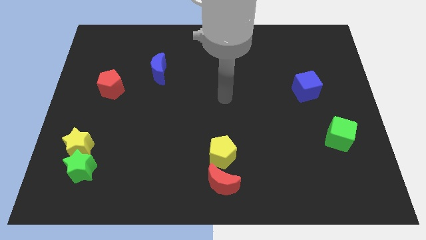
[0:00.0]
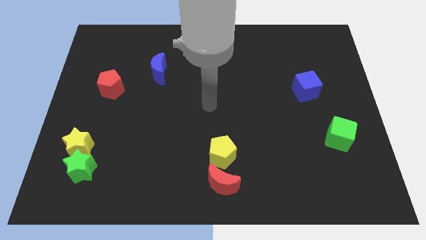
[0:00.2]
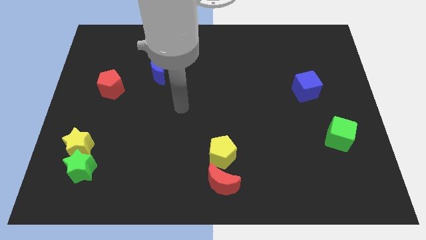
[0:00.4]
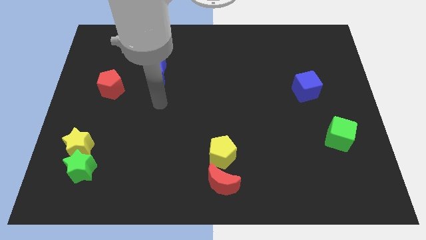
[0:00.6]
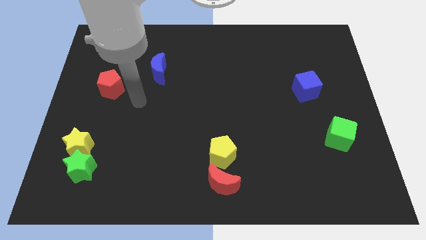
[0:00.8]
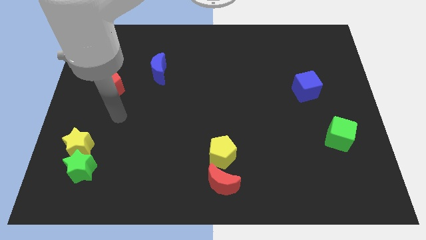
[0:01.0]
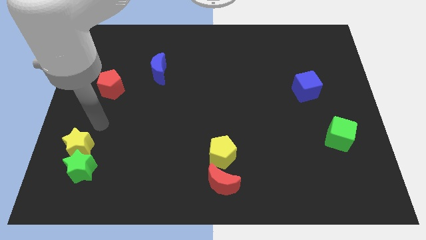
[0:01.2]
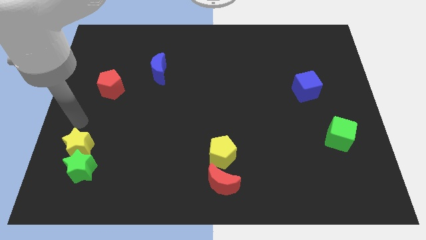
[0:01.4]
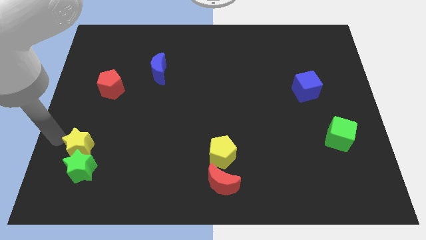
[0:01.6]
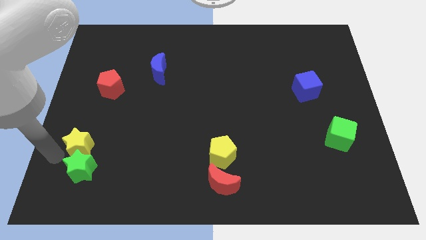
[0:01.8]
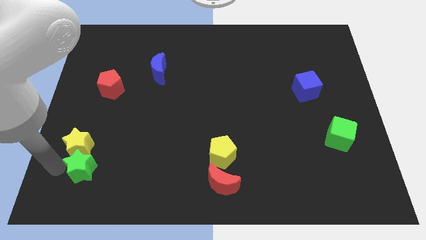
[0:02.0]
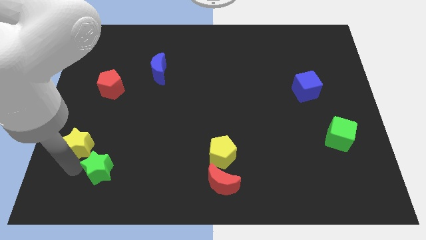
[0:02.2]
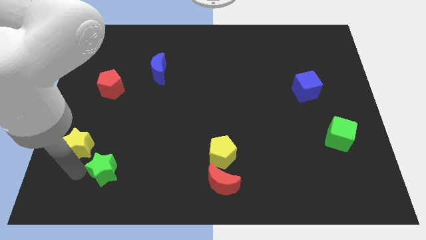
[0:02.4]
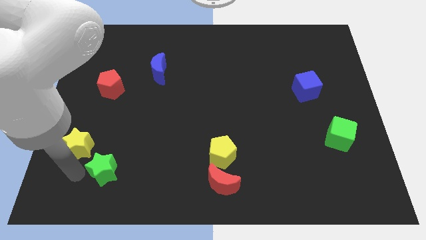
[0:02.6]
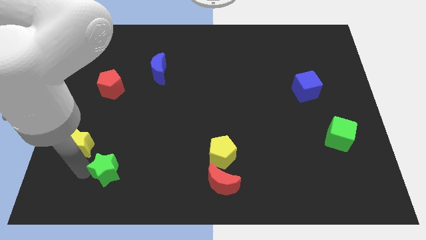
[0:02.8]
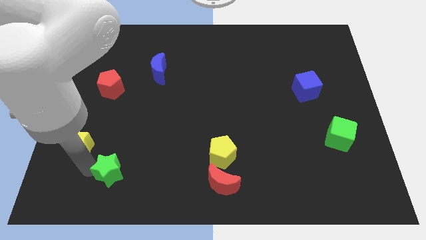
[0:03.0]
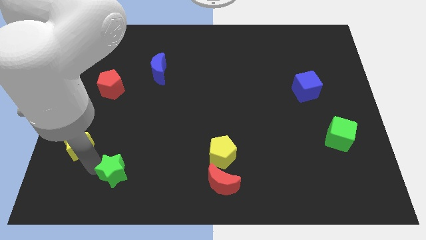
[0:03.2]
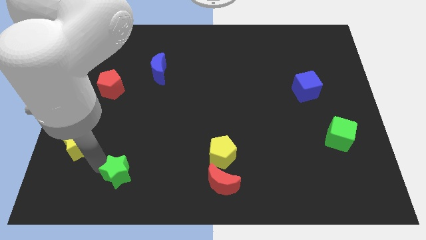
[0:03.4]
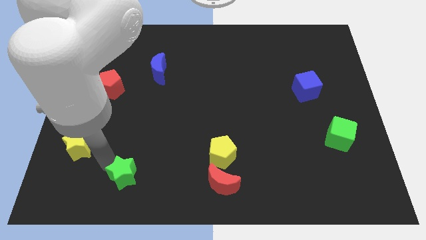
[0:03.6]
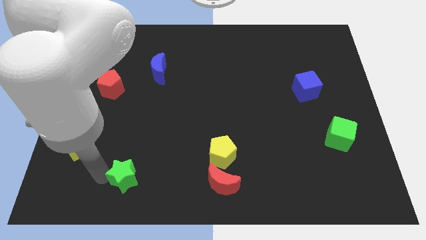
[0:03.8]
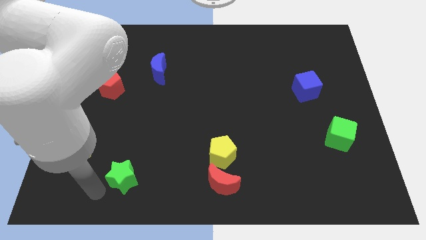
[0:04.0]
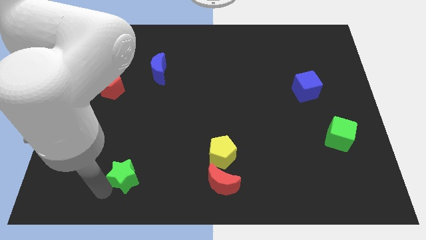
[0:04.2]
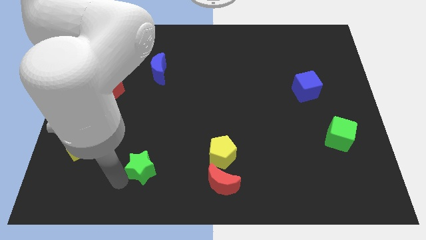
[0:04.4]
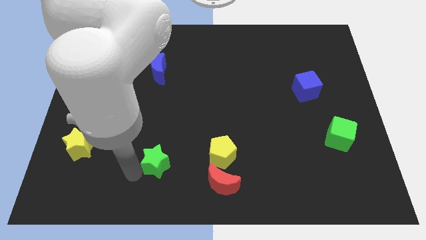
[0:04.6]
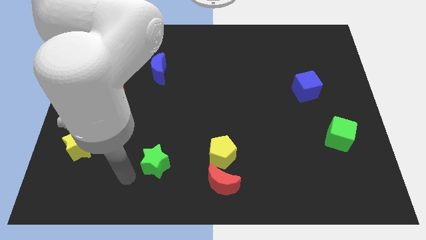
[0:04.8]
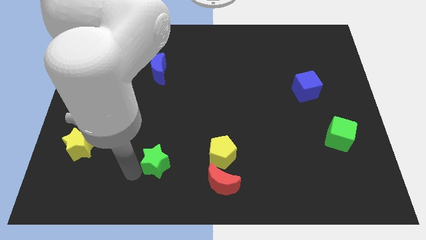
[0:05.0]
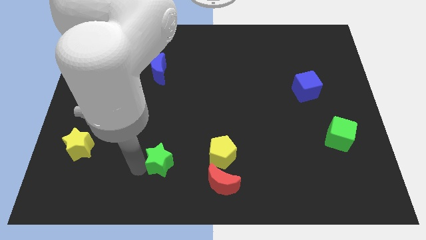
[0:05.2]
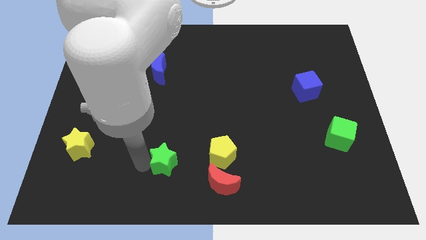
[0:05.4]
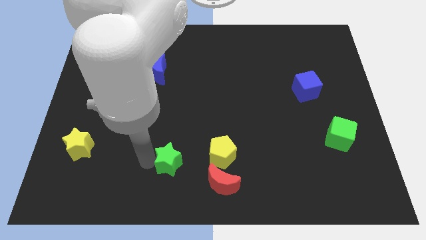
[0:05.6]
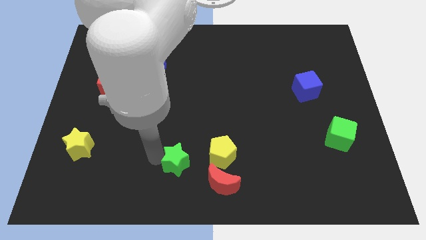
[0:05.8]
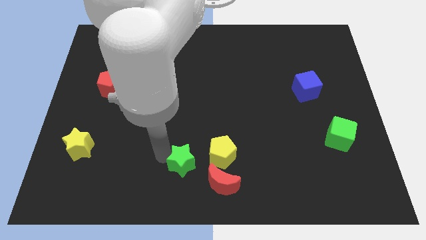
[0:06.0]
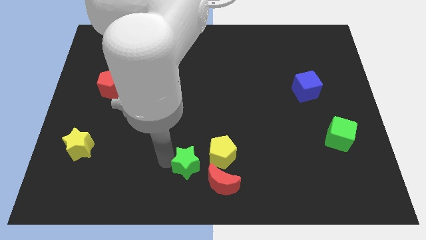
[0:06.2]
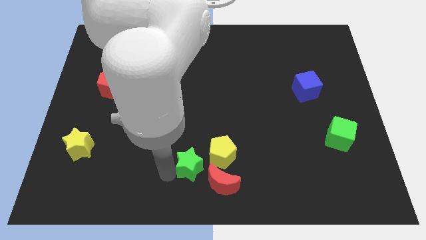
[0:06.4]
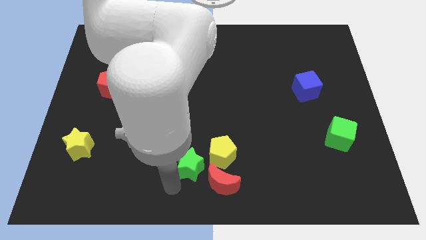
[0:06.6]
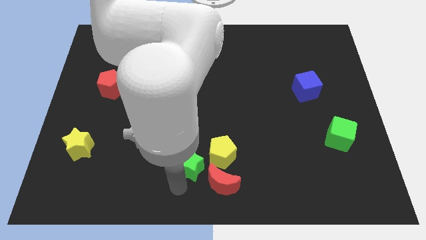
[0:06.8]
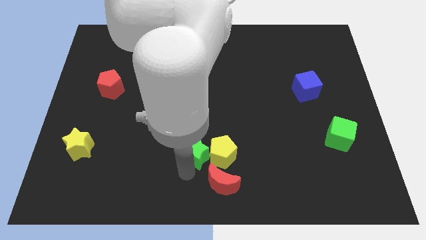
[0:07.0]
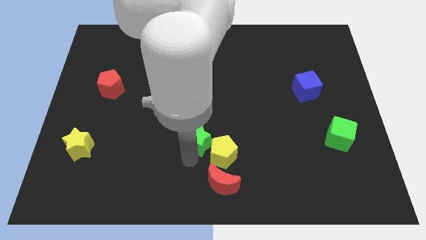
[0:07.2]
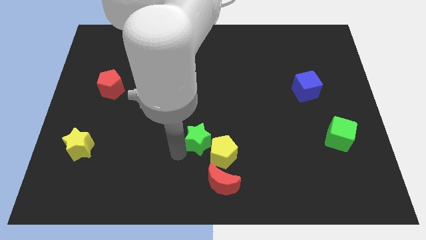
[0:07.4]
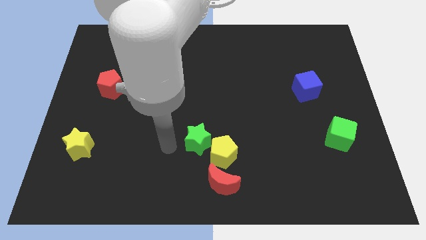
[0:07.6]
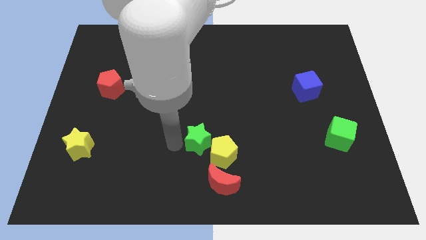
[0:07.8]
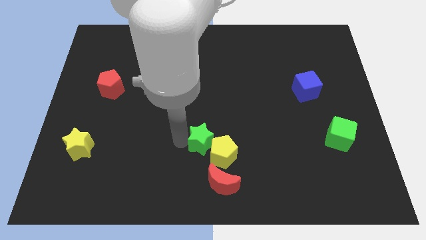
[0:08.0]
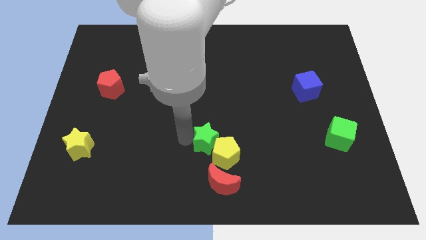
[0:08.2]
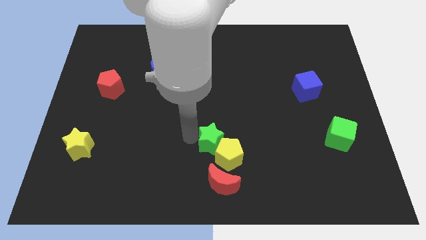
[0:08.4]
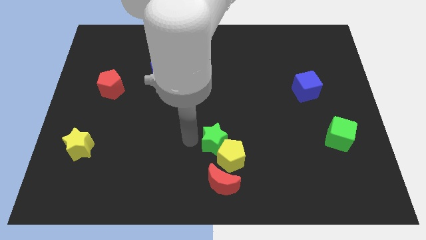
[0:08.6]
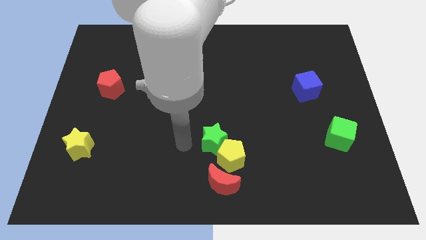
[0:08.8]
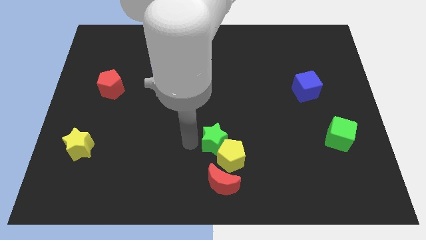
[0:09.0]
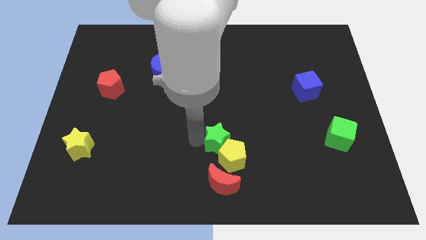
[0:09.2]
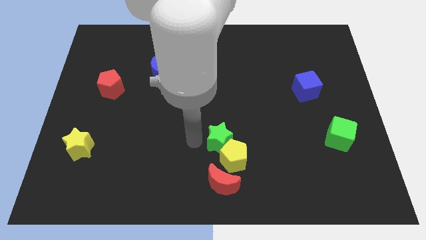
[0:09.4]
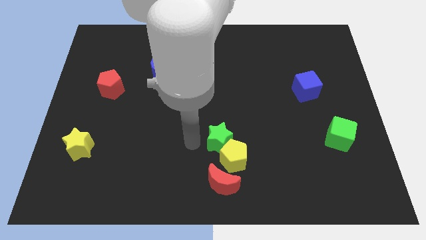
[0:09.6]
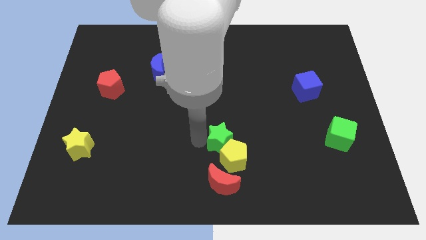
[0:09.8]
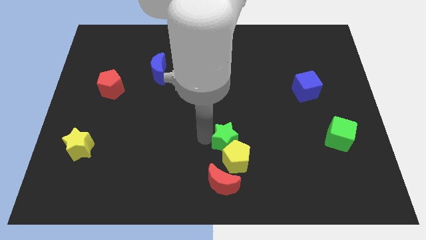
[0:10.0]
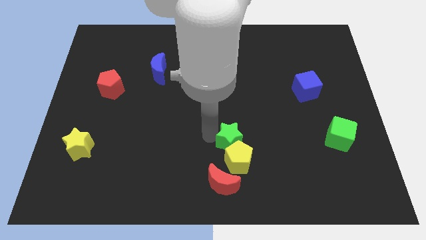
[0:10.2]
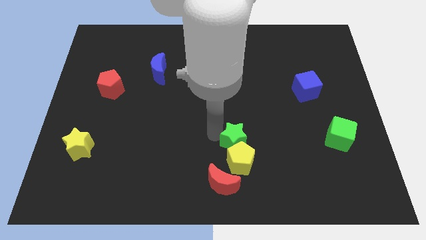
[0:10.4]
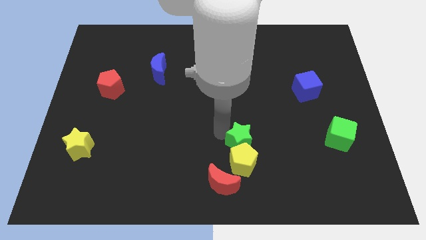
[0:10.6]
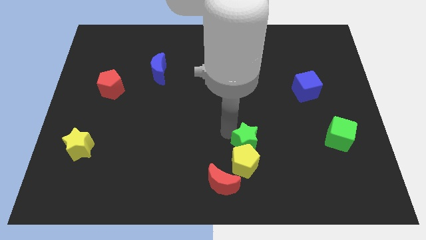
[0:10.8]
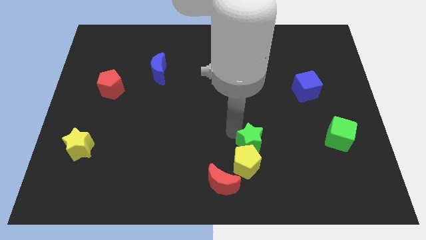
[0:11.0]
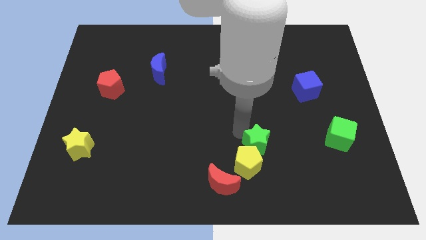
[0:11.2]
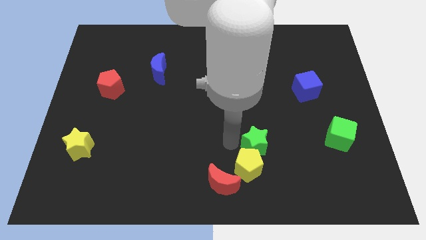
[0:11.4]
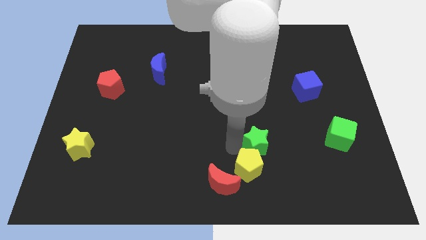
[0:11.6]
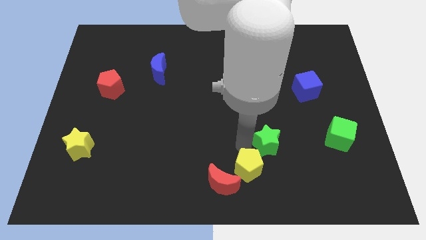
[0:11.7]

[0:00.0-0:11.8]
slide the green star left of the green cube

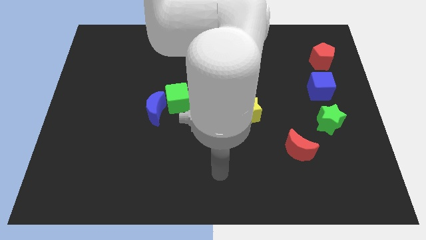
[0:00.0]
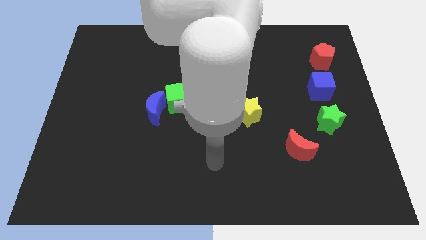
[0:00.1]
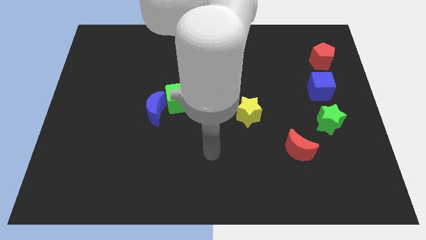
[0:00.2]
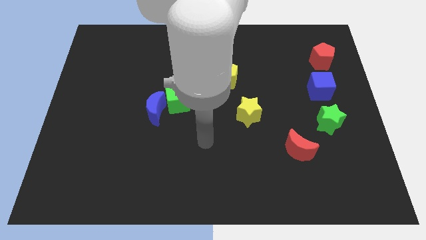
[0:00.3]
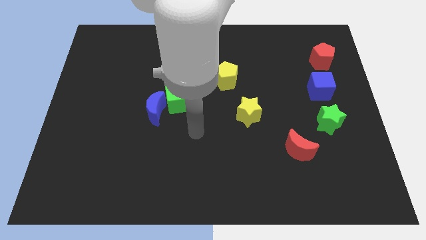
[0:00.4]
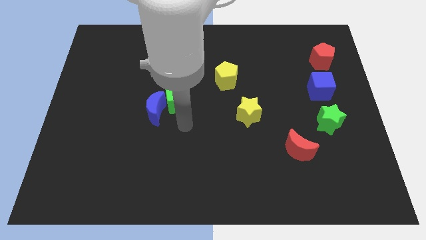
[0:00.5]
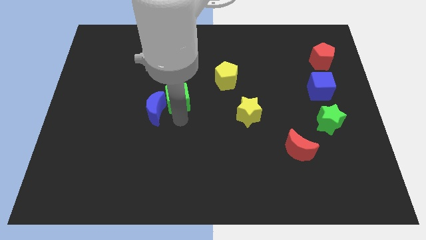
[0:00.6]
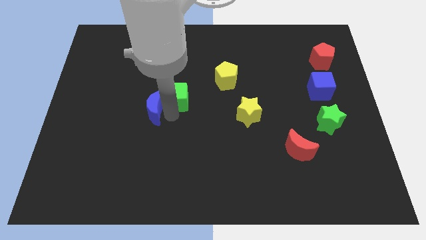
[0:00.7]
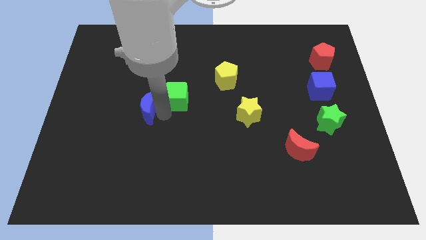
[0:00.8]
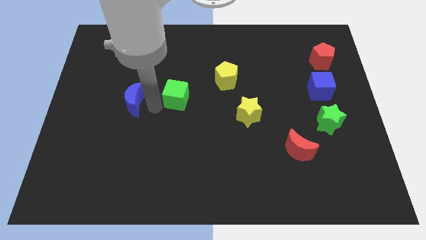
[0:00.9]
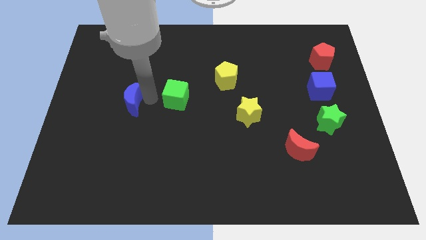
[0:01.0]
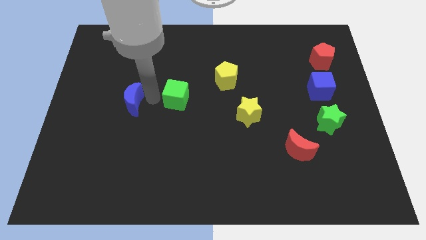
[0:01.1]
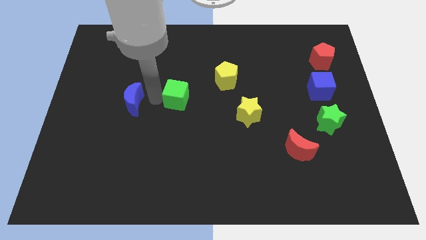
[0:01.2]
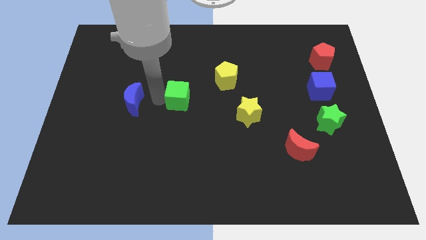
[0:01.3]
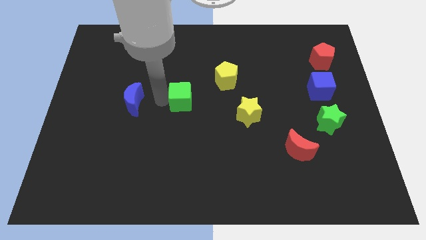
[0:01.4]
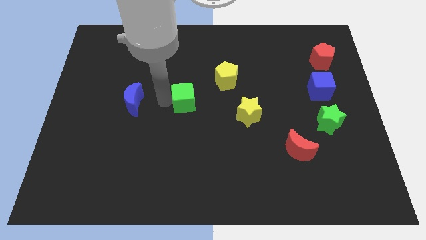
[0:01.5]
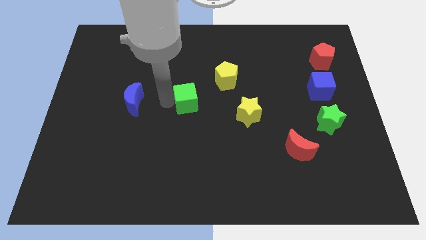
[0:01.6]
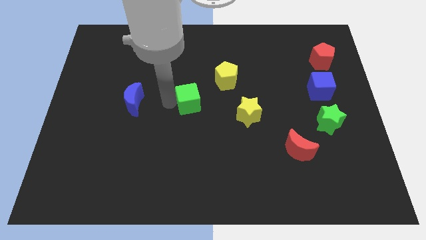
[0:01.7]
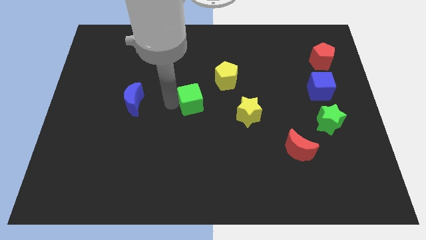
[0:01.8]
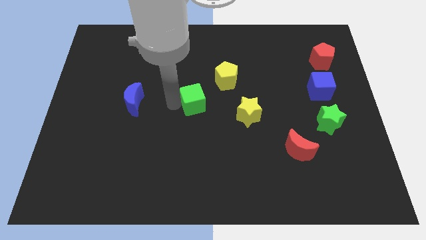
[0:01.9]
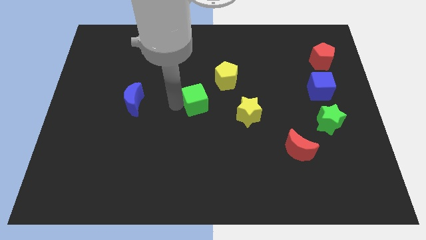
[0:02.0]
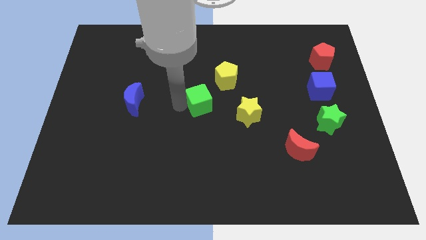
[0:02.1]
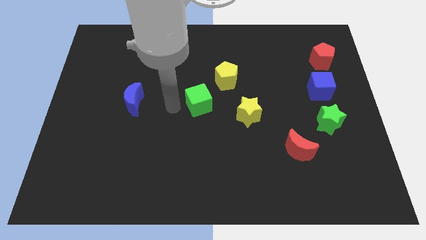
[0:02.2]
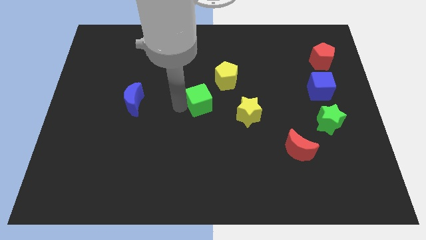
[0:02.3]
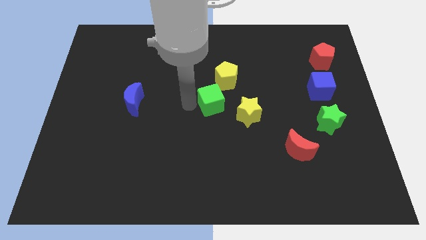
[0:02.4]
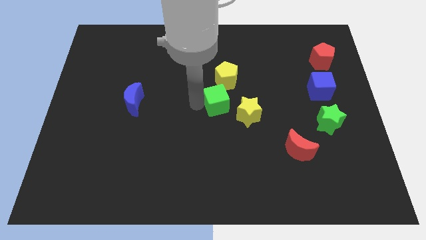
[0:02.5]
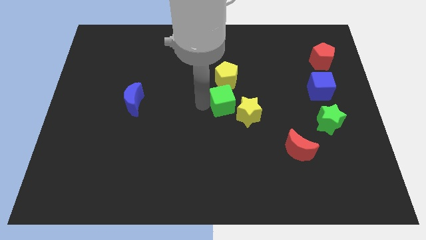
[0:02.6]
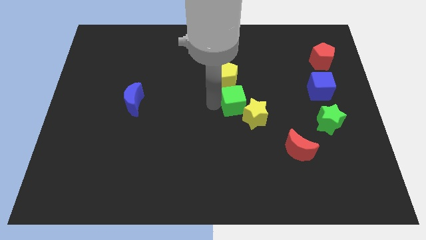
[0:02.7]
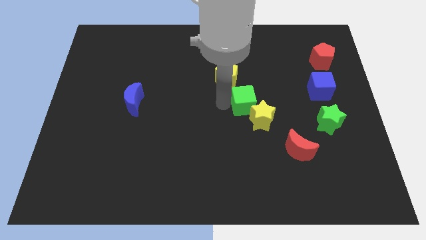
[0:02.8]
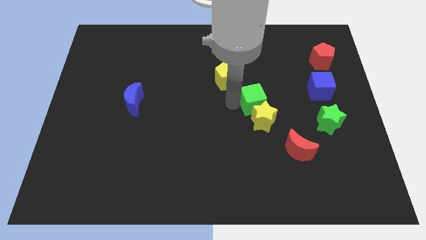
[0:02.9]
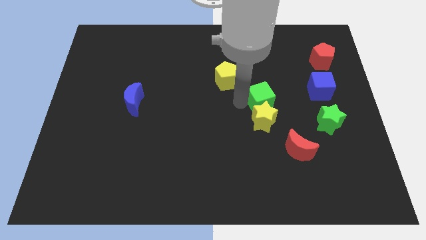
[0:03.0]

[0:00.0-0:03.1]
slide the green cube to the top right of the yellow star
